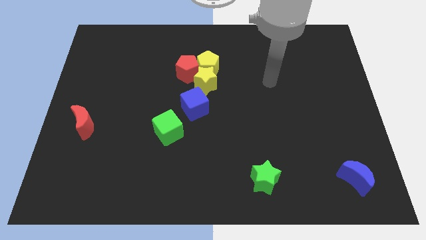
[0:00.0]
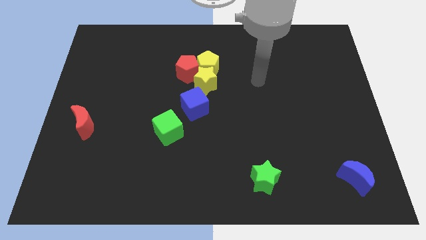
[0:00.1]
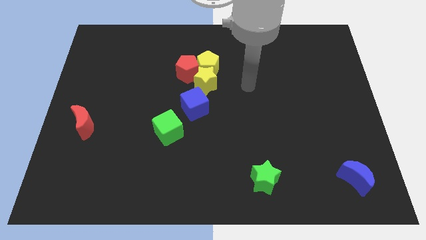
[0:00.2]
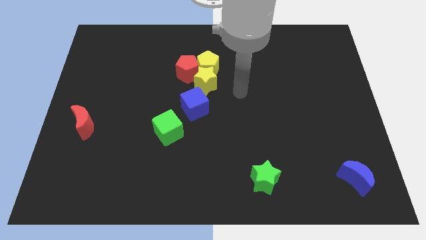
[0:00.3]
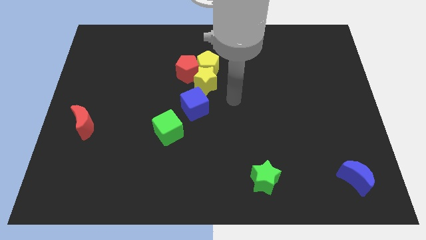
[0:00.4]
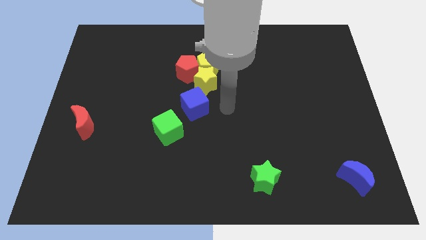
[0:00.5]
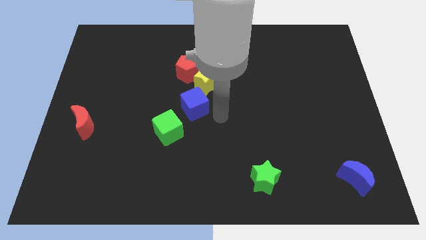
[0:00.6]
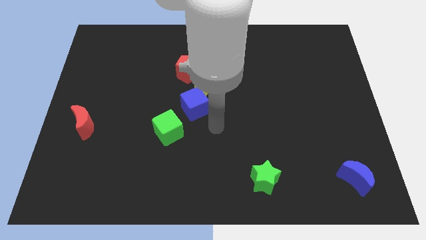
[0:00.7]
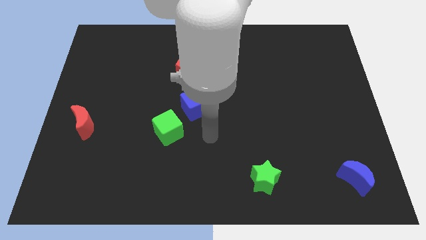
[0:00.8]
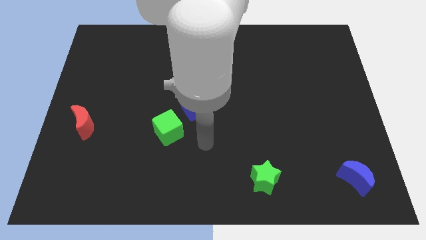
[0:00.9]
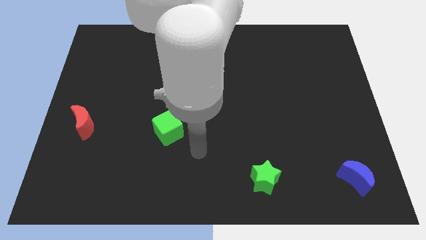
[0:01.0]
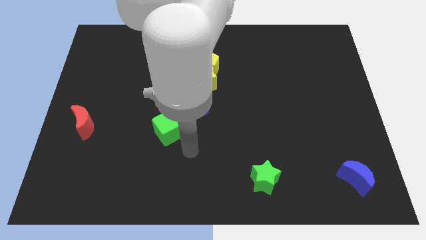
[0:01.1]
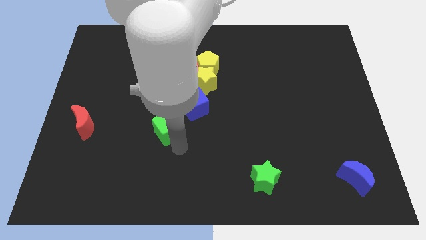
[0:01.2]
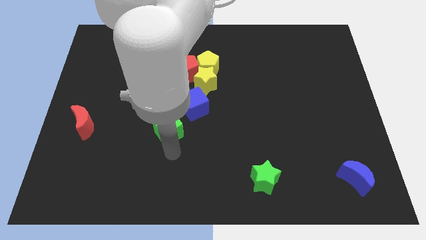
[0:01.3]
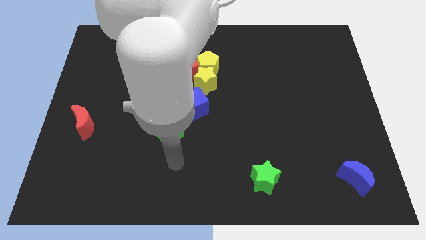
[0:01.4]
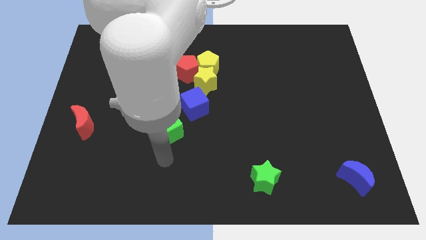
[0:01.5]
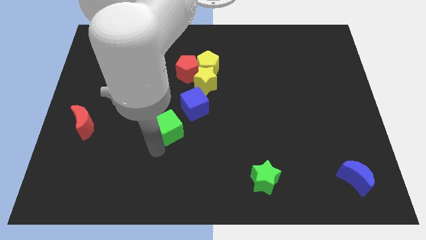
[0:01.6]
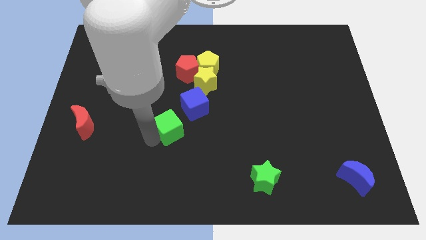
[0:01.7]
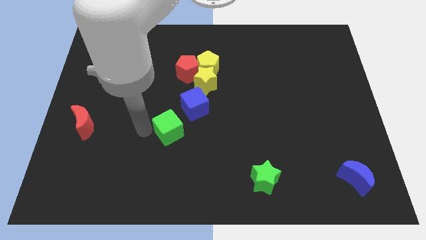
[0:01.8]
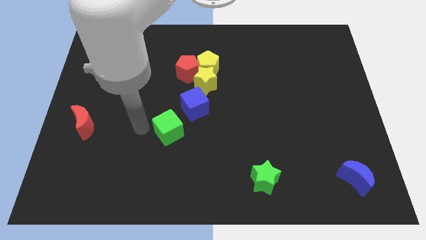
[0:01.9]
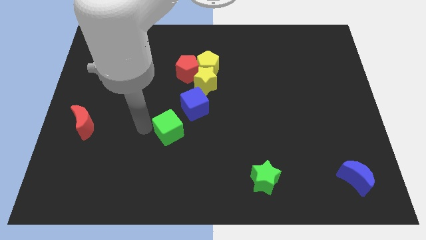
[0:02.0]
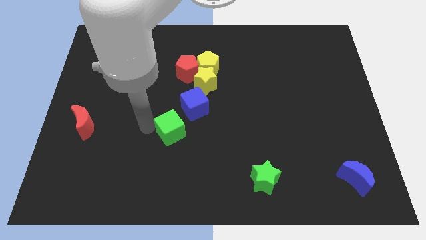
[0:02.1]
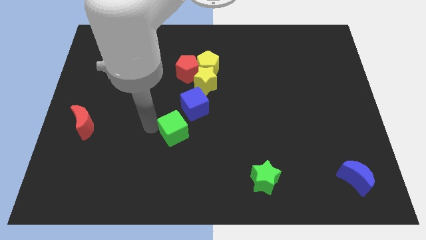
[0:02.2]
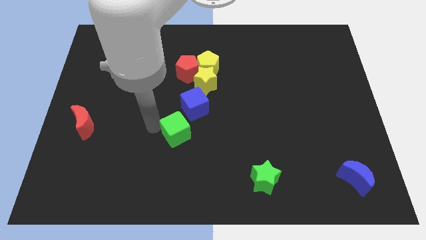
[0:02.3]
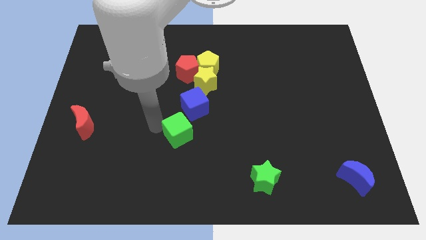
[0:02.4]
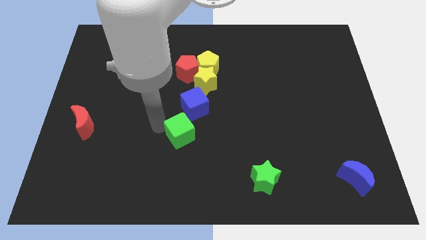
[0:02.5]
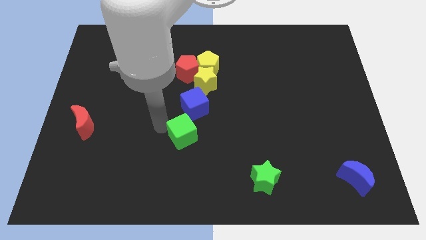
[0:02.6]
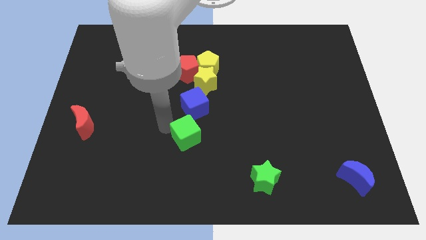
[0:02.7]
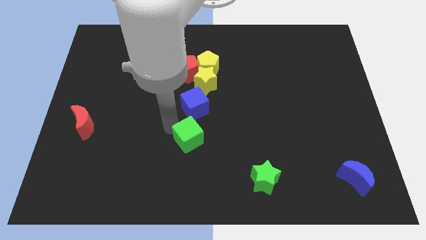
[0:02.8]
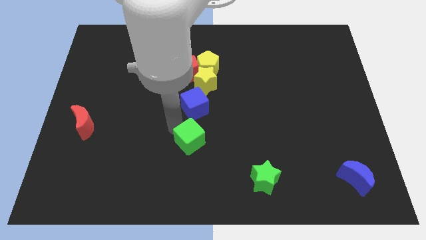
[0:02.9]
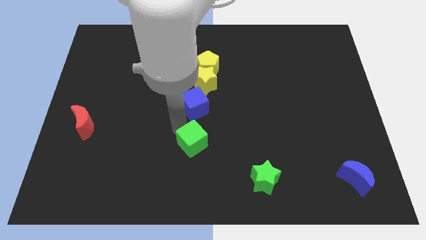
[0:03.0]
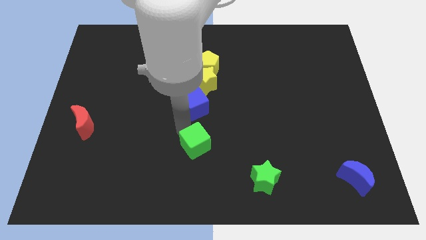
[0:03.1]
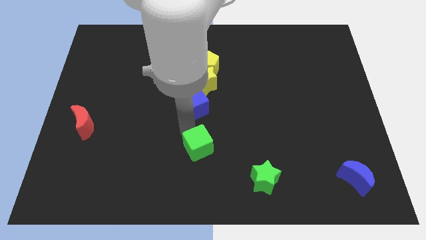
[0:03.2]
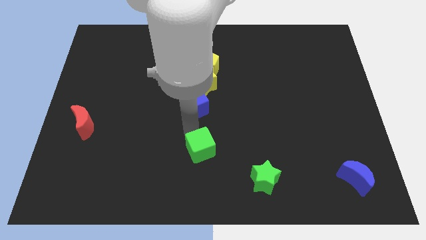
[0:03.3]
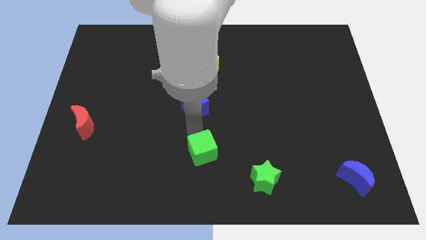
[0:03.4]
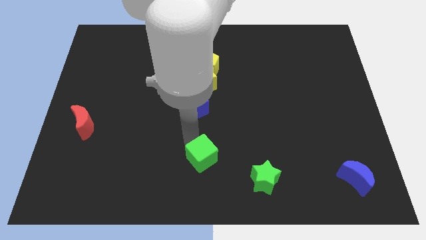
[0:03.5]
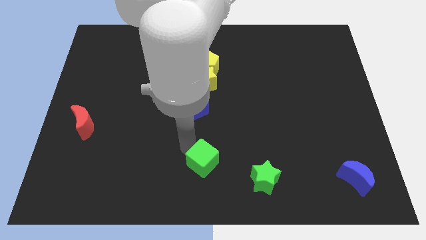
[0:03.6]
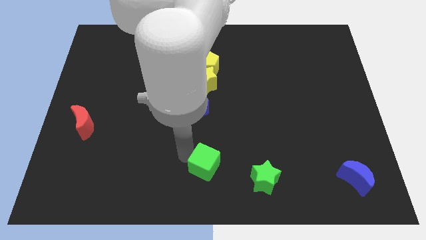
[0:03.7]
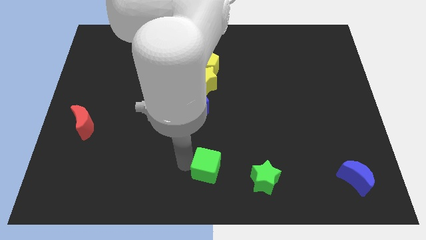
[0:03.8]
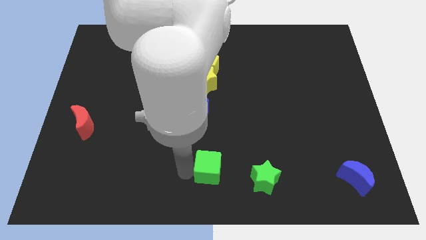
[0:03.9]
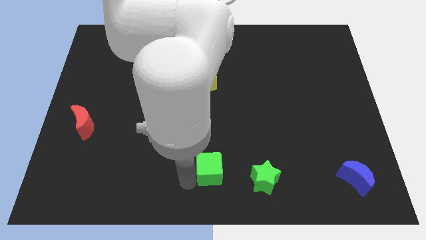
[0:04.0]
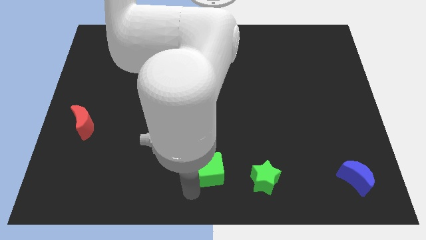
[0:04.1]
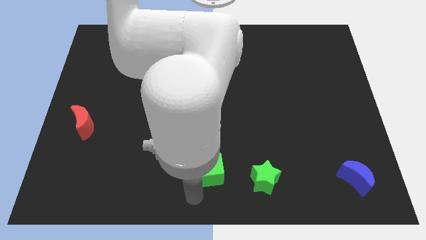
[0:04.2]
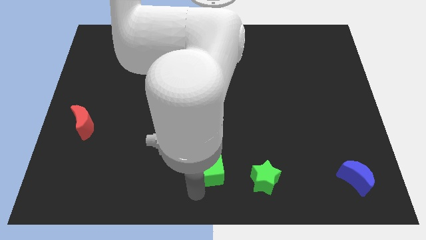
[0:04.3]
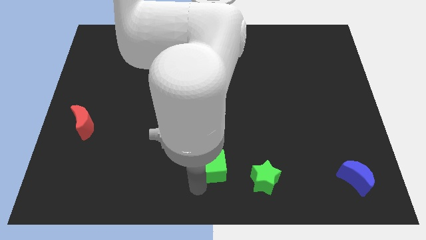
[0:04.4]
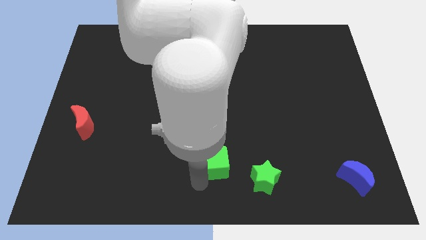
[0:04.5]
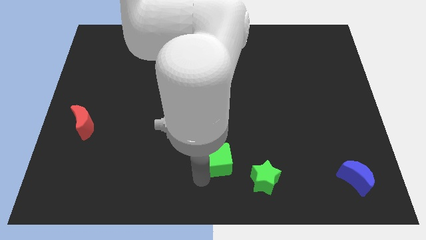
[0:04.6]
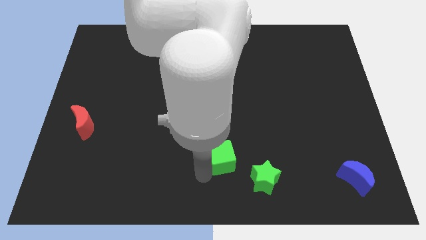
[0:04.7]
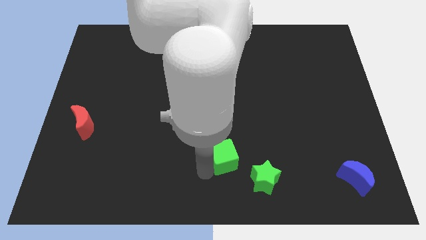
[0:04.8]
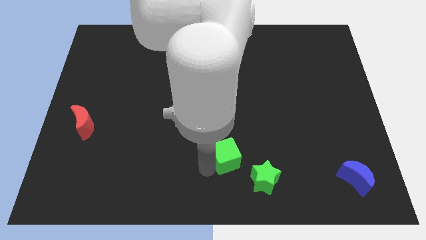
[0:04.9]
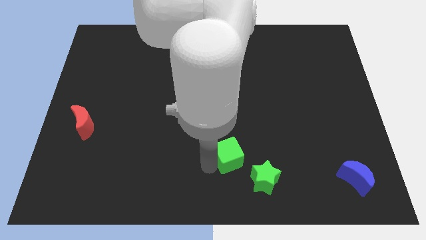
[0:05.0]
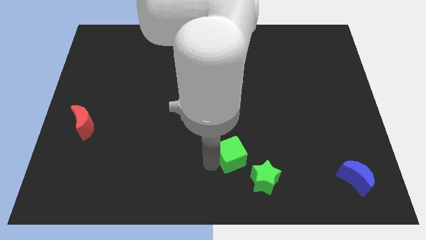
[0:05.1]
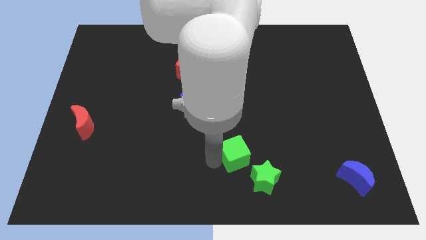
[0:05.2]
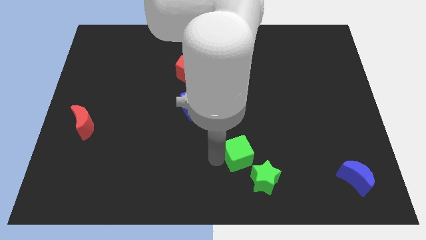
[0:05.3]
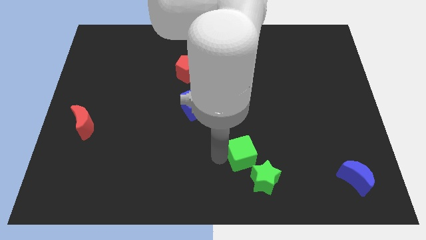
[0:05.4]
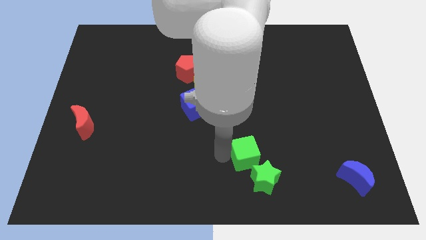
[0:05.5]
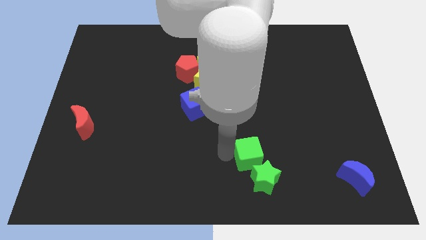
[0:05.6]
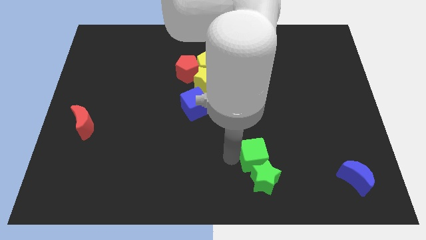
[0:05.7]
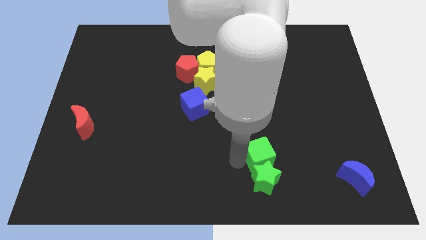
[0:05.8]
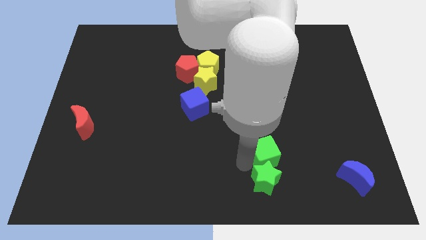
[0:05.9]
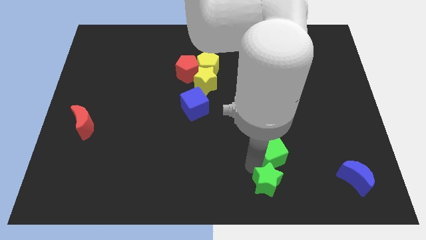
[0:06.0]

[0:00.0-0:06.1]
slide the green cube right

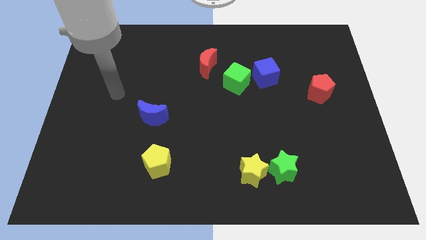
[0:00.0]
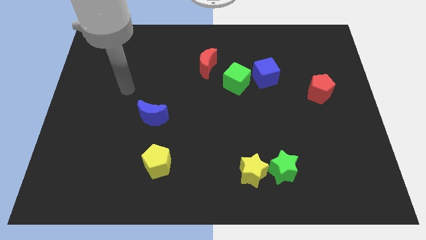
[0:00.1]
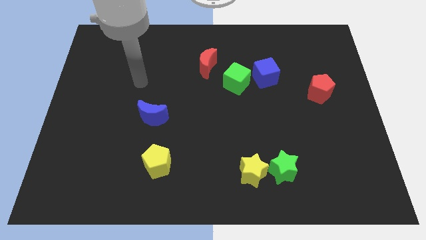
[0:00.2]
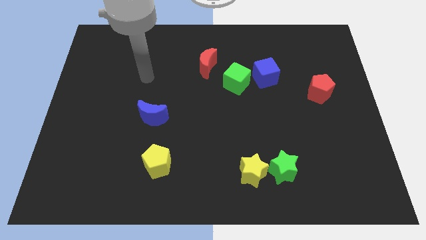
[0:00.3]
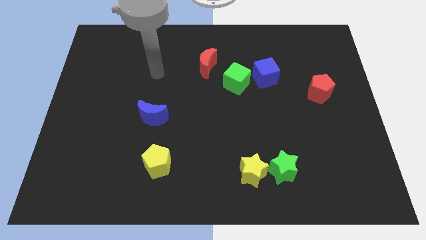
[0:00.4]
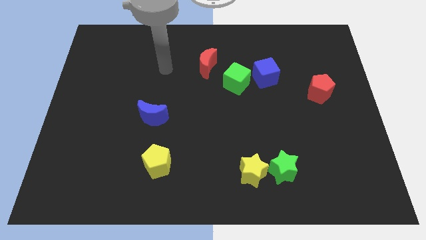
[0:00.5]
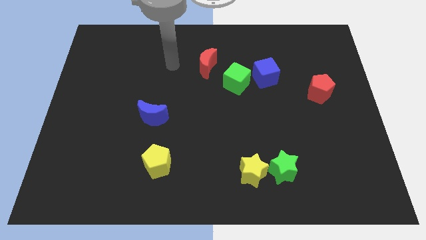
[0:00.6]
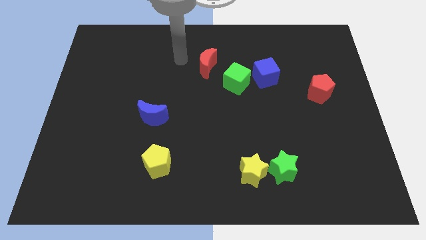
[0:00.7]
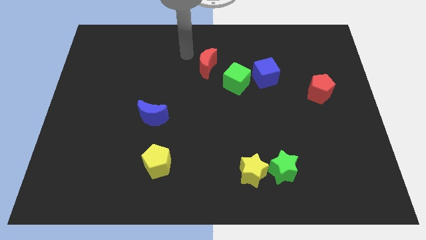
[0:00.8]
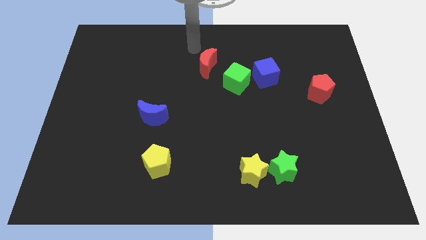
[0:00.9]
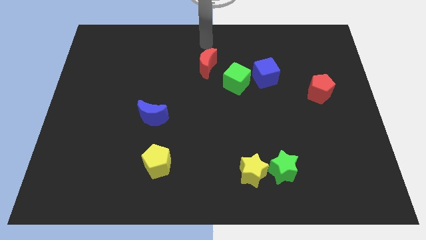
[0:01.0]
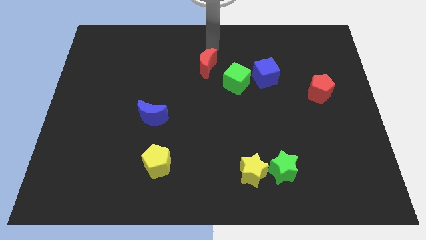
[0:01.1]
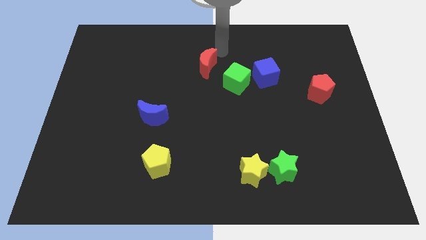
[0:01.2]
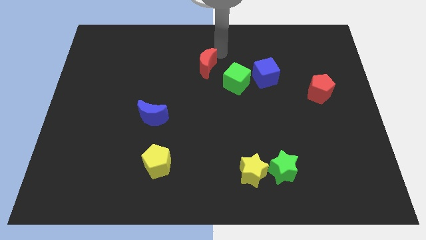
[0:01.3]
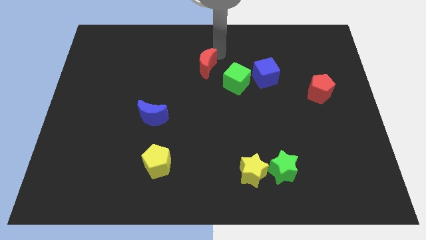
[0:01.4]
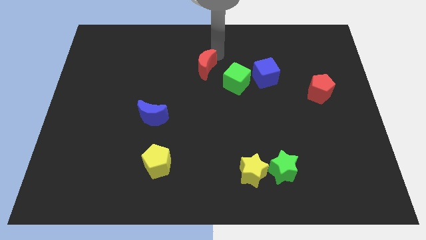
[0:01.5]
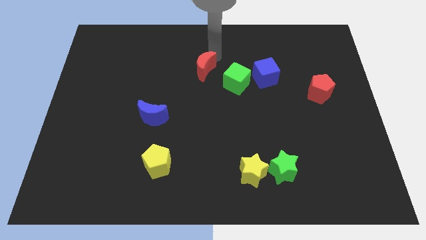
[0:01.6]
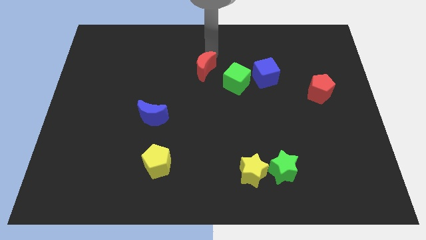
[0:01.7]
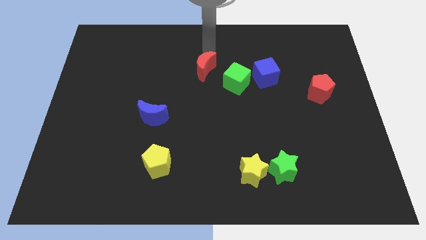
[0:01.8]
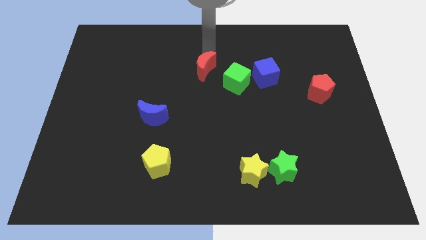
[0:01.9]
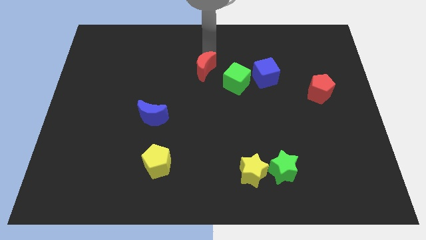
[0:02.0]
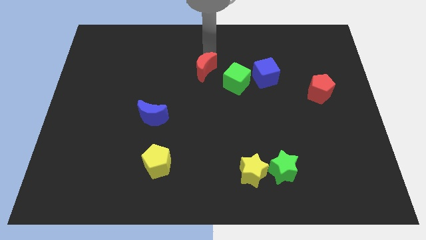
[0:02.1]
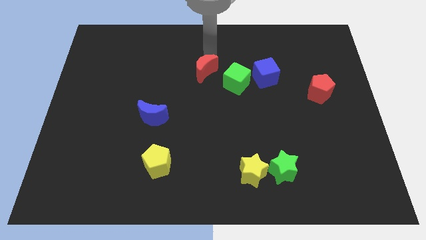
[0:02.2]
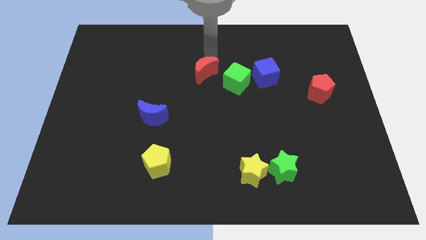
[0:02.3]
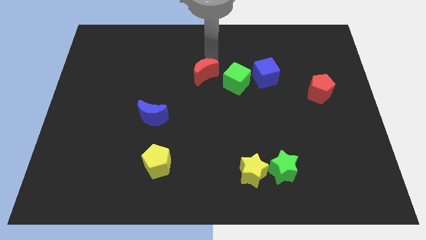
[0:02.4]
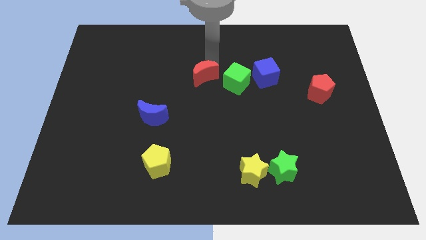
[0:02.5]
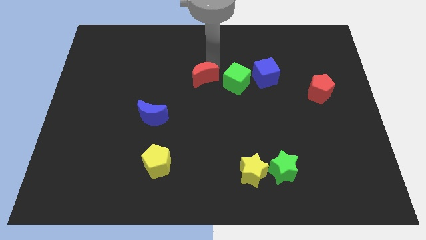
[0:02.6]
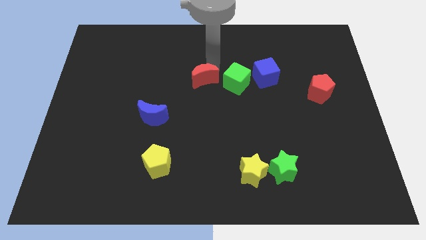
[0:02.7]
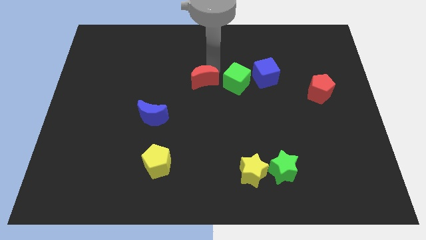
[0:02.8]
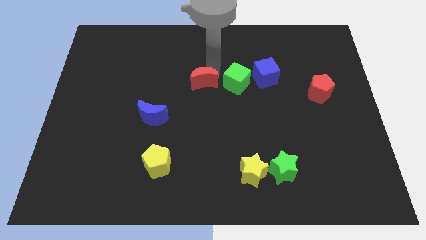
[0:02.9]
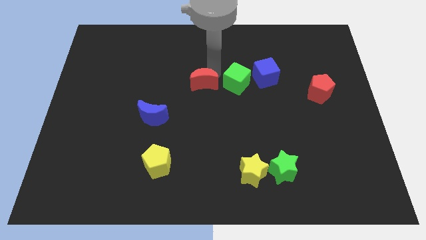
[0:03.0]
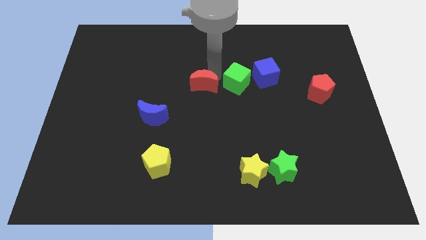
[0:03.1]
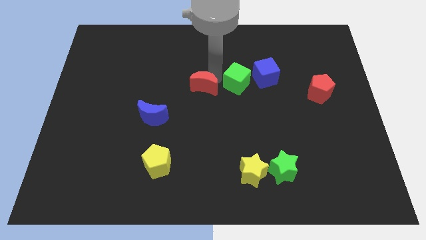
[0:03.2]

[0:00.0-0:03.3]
slightly move the red moon down
